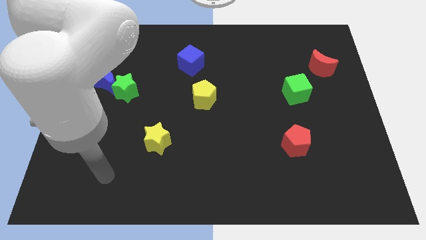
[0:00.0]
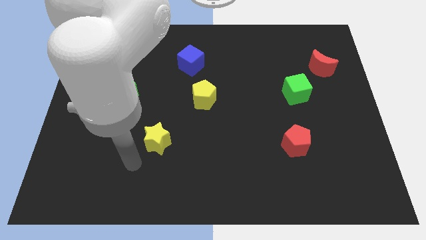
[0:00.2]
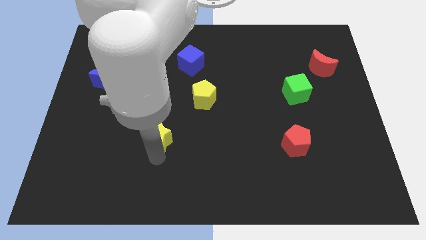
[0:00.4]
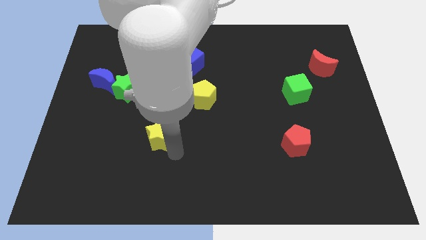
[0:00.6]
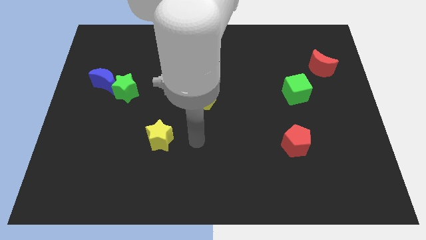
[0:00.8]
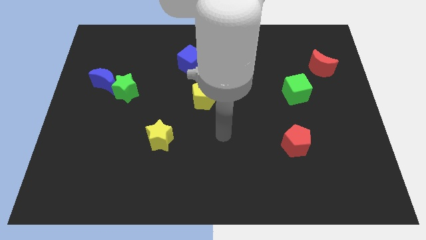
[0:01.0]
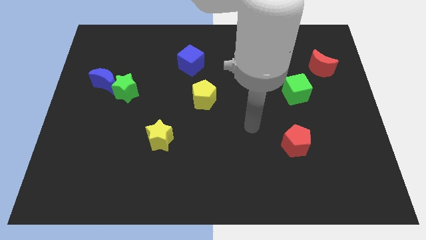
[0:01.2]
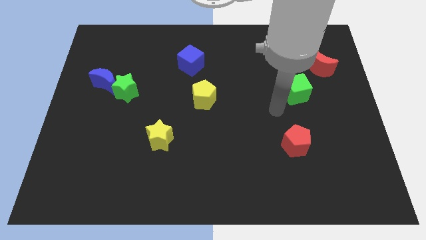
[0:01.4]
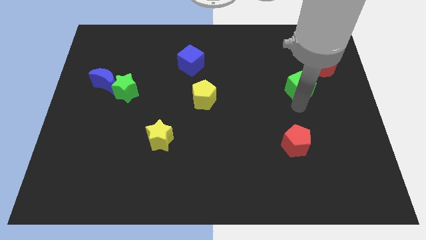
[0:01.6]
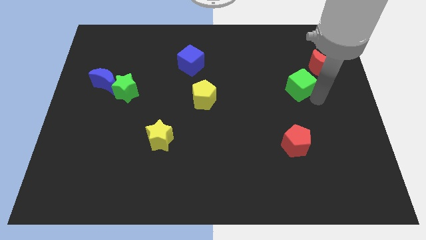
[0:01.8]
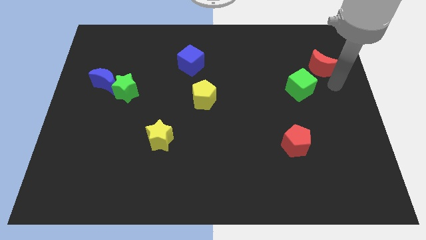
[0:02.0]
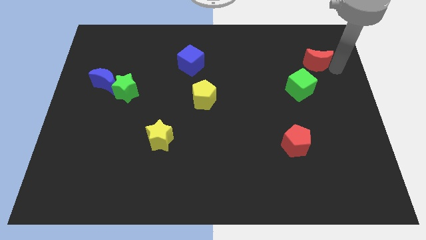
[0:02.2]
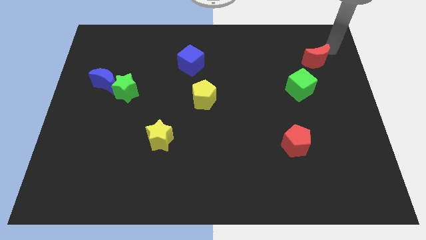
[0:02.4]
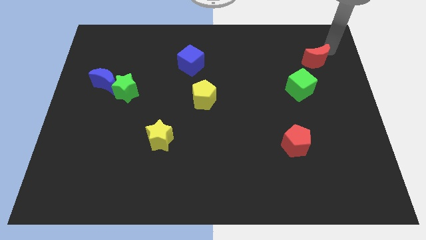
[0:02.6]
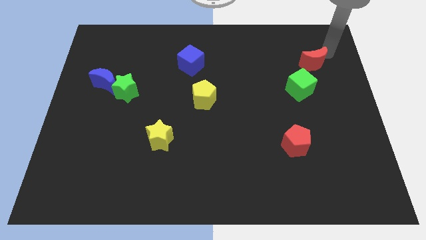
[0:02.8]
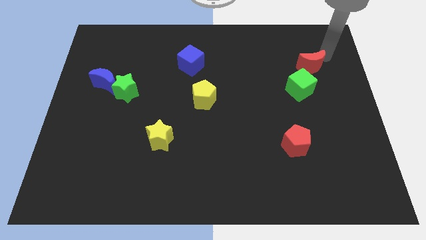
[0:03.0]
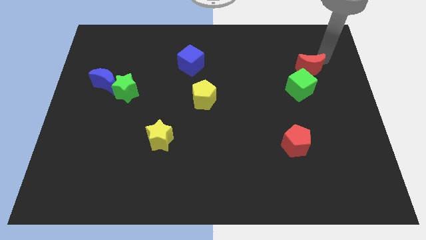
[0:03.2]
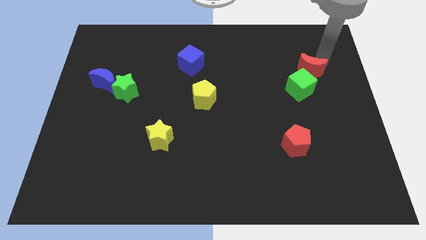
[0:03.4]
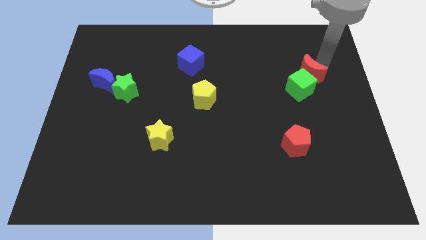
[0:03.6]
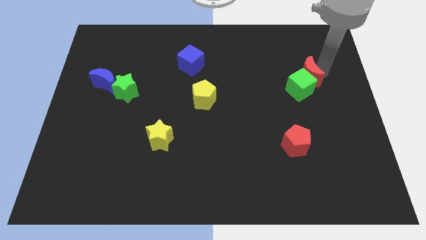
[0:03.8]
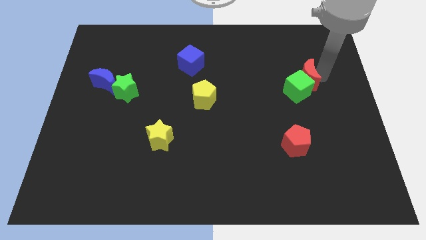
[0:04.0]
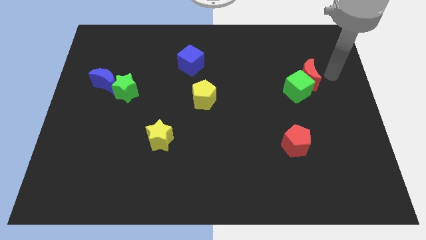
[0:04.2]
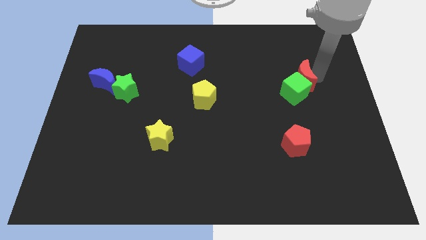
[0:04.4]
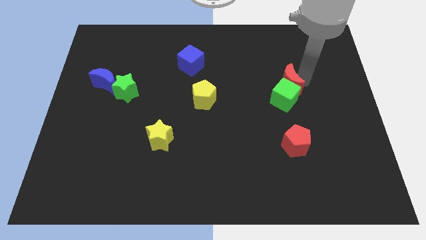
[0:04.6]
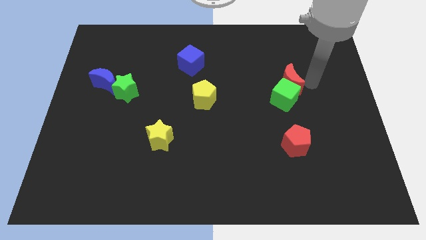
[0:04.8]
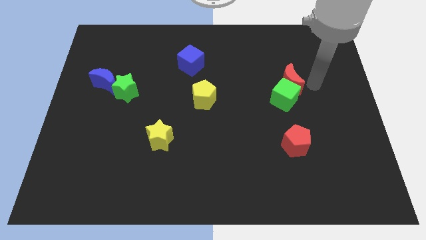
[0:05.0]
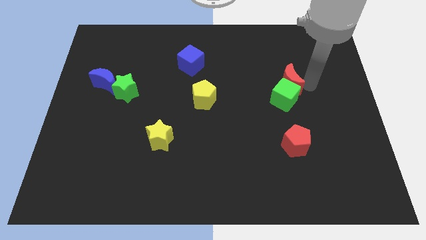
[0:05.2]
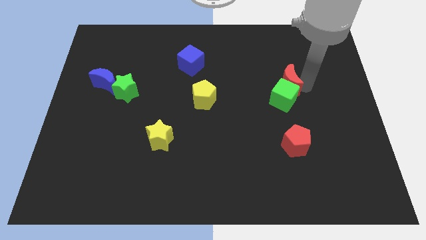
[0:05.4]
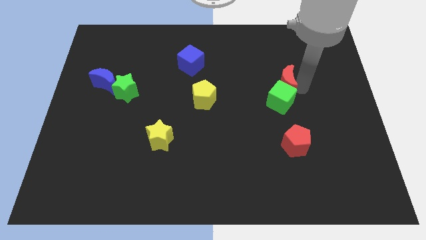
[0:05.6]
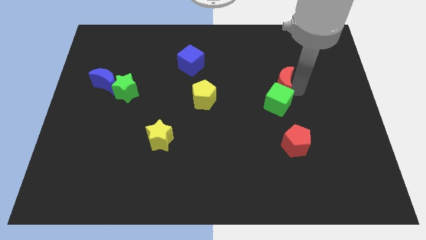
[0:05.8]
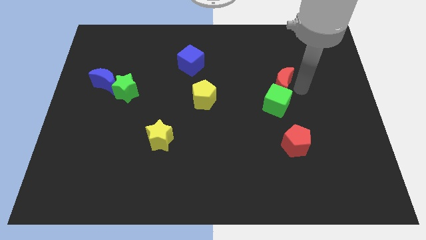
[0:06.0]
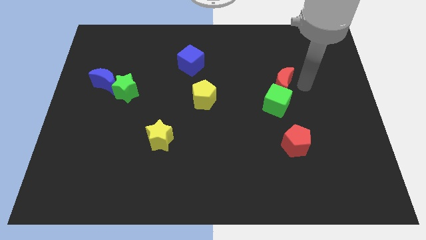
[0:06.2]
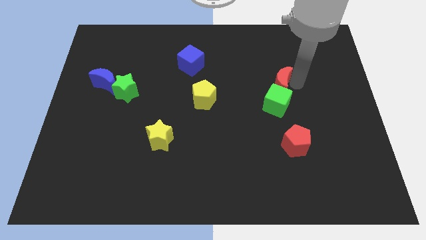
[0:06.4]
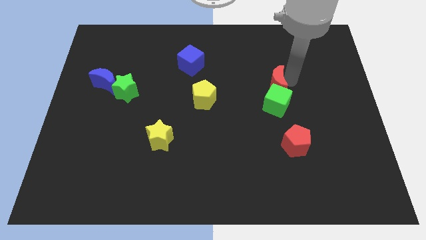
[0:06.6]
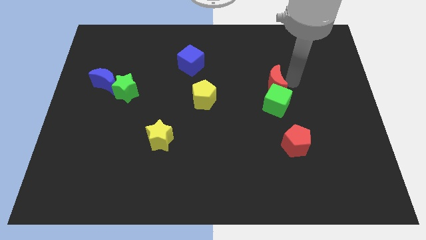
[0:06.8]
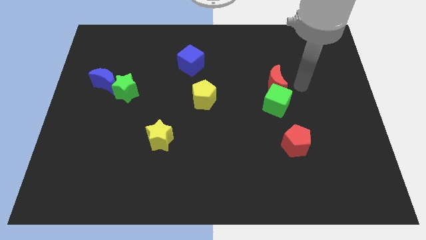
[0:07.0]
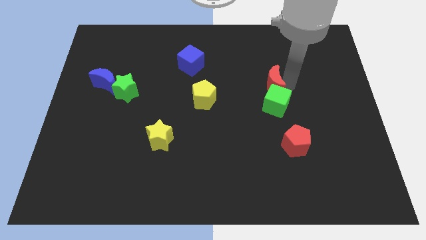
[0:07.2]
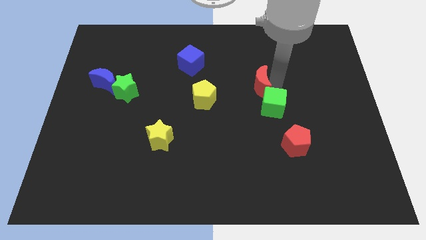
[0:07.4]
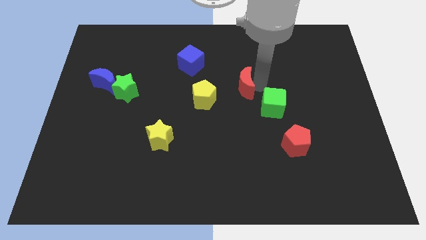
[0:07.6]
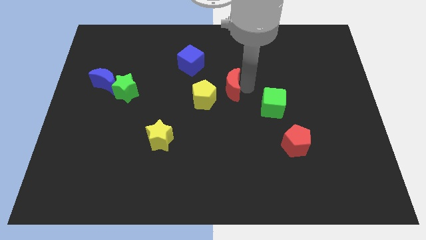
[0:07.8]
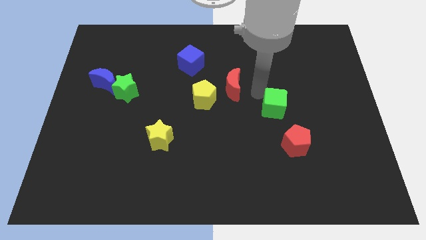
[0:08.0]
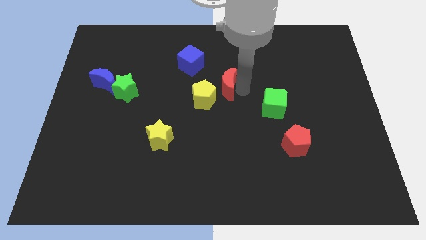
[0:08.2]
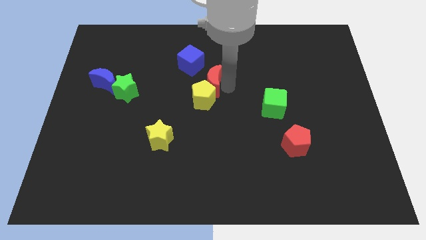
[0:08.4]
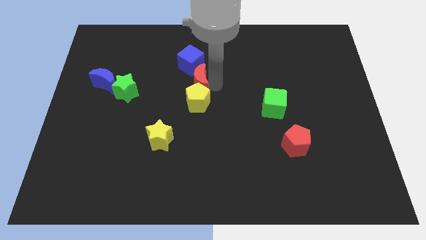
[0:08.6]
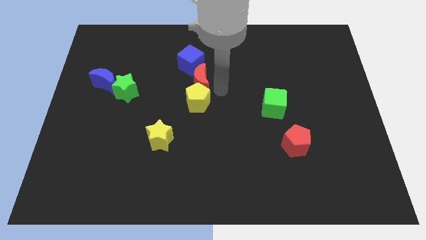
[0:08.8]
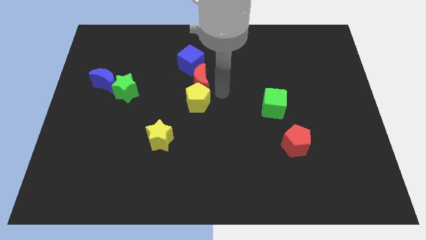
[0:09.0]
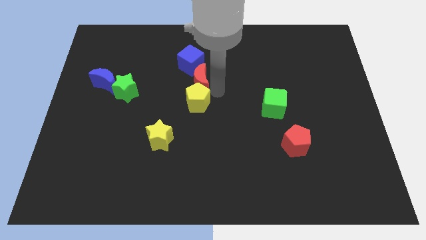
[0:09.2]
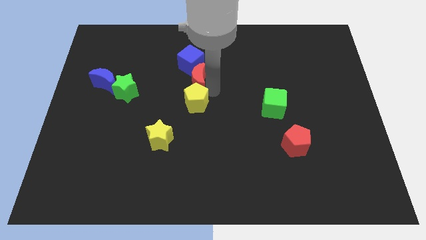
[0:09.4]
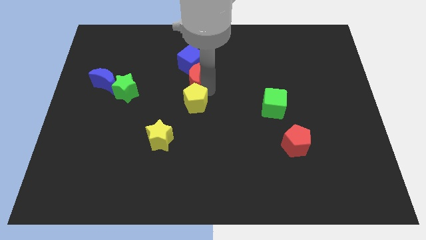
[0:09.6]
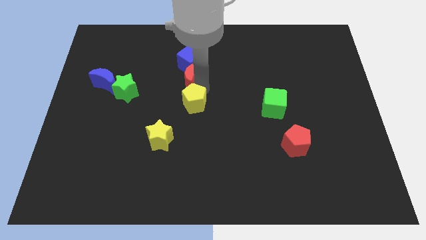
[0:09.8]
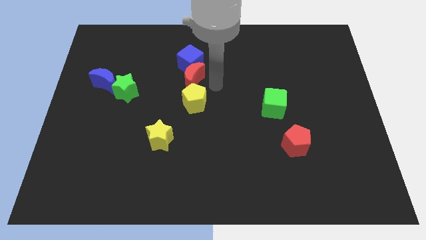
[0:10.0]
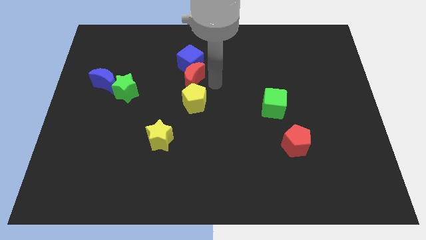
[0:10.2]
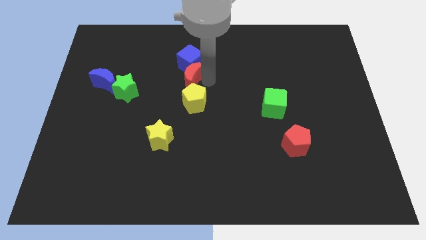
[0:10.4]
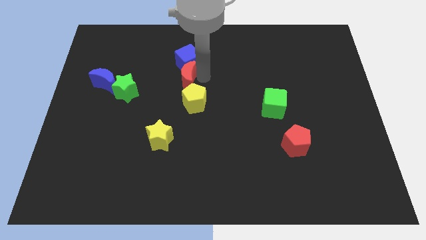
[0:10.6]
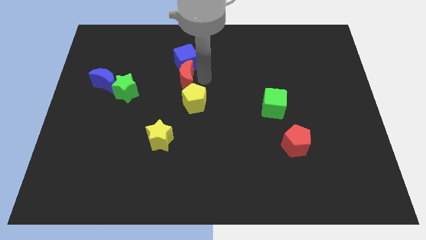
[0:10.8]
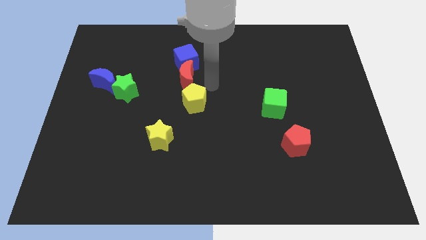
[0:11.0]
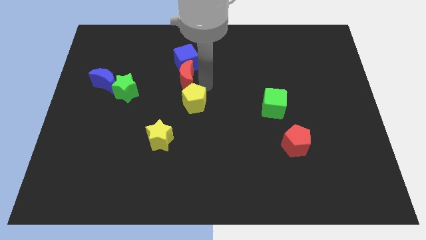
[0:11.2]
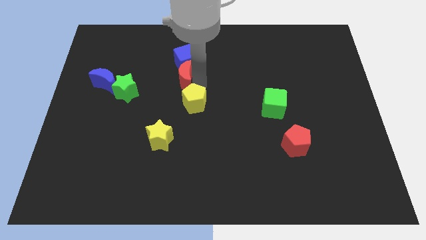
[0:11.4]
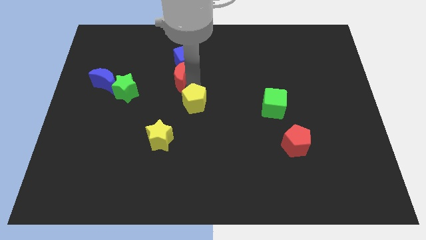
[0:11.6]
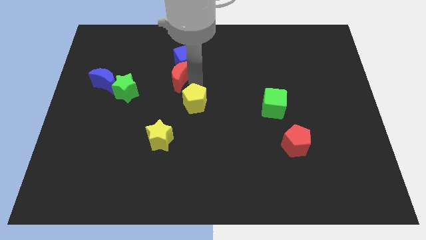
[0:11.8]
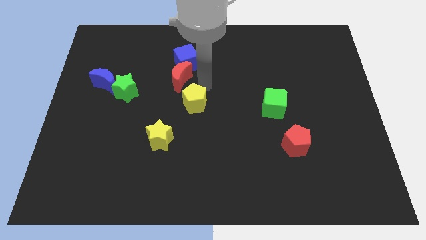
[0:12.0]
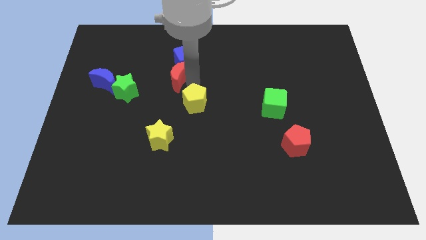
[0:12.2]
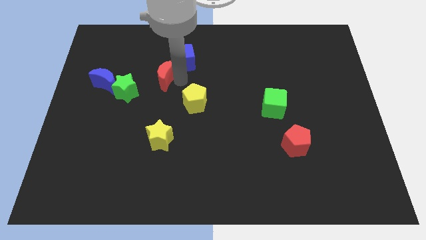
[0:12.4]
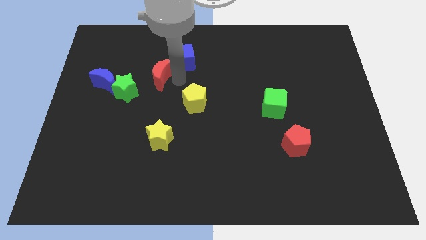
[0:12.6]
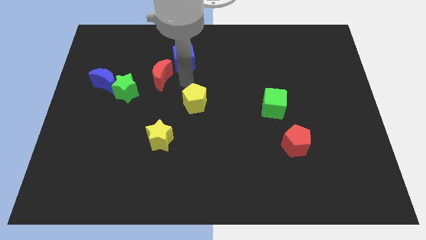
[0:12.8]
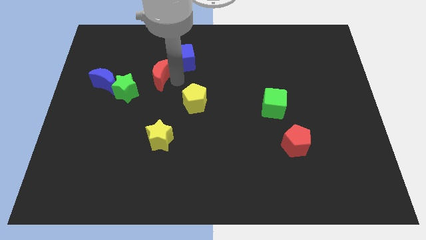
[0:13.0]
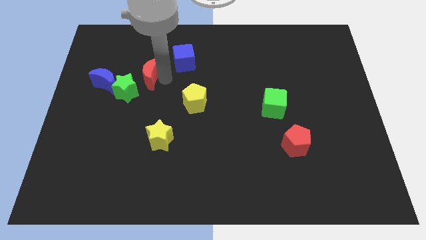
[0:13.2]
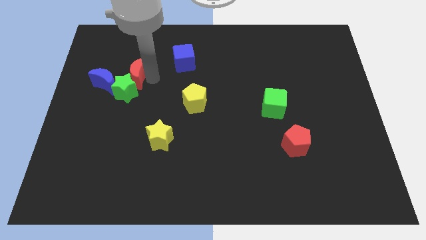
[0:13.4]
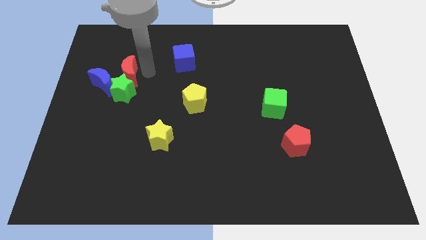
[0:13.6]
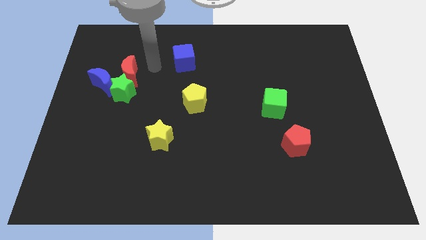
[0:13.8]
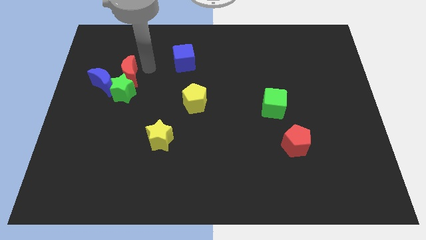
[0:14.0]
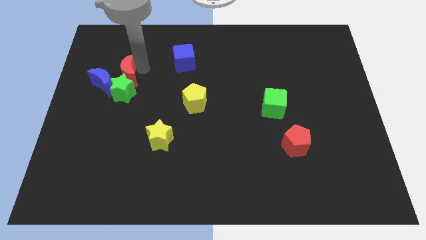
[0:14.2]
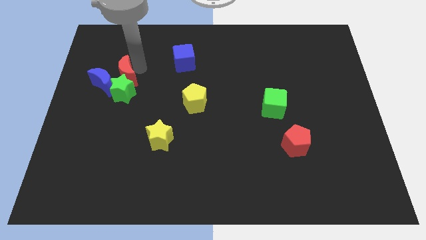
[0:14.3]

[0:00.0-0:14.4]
put the red moon towards the blue moon

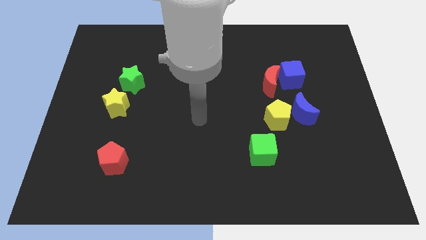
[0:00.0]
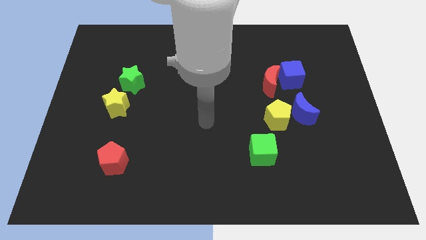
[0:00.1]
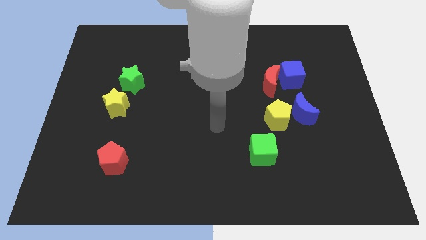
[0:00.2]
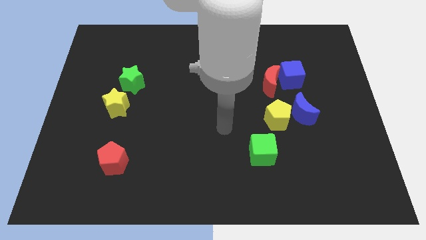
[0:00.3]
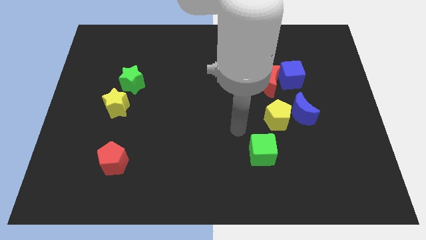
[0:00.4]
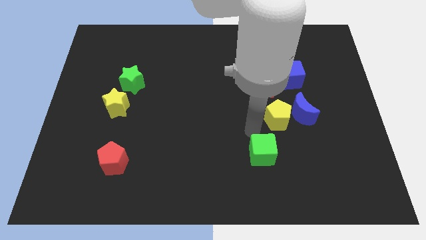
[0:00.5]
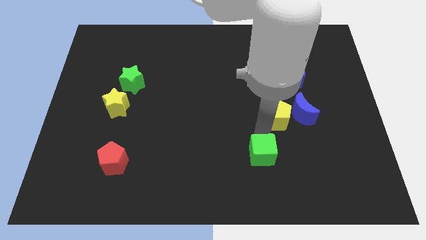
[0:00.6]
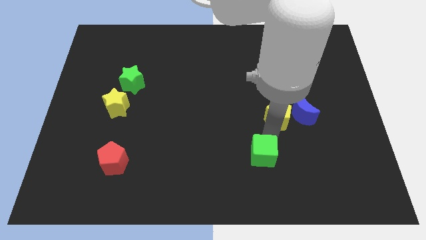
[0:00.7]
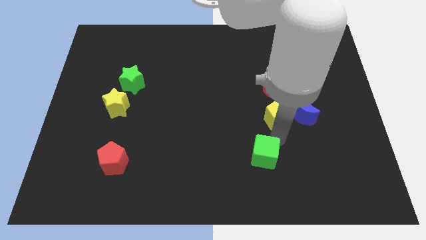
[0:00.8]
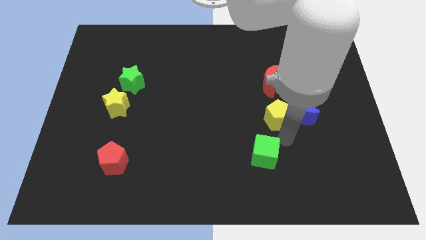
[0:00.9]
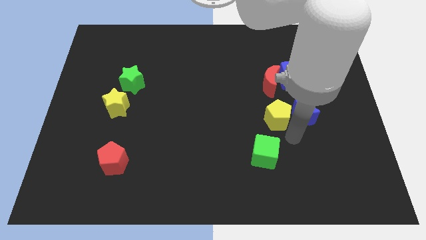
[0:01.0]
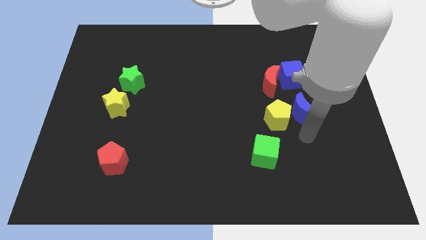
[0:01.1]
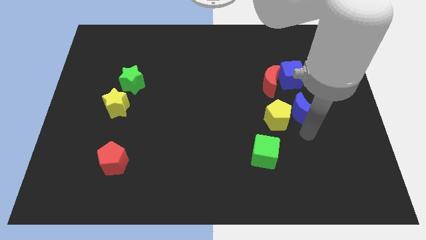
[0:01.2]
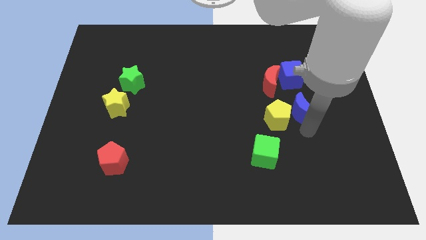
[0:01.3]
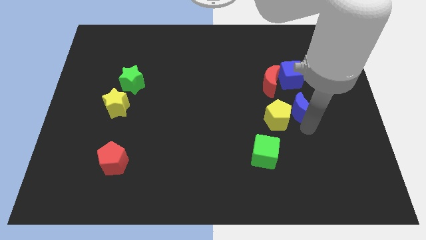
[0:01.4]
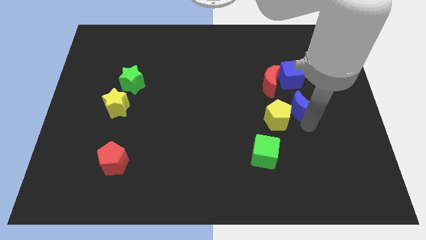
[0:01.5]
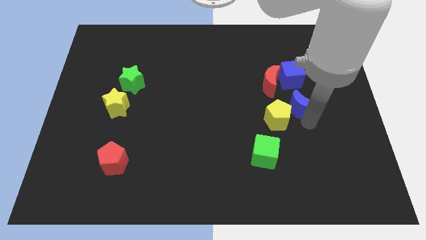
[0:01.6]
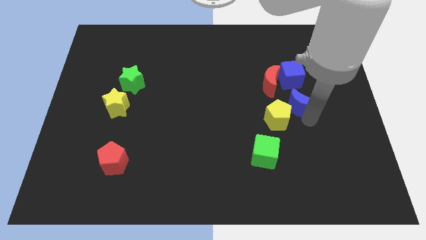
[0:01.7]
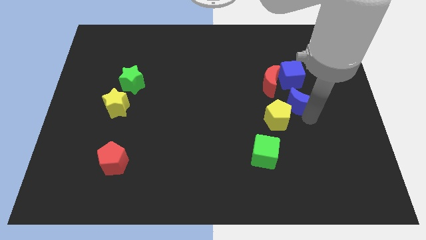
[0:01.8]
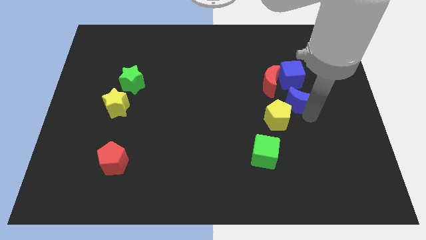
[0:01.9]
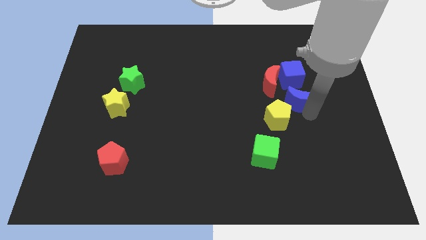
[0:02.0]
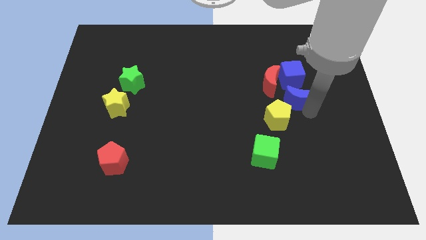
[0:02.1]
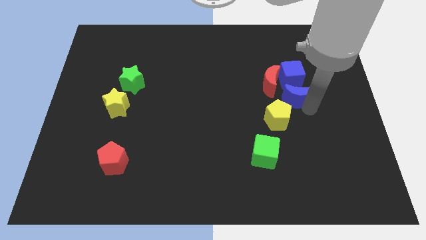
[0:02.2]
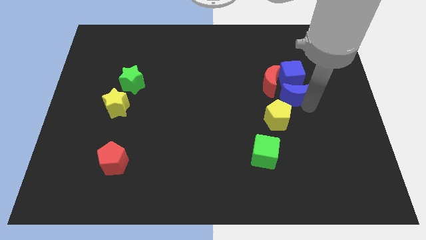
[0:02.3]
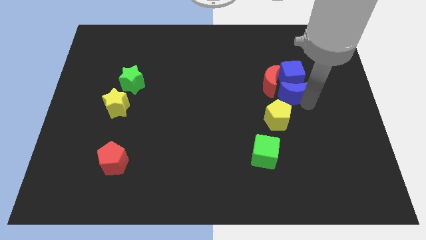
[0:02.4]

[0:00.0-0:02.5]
move the blue moon towards the blue cube
